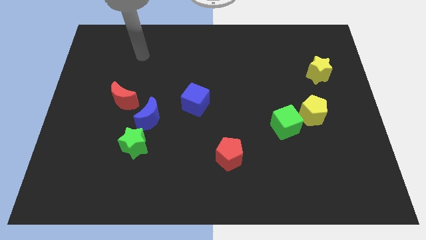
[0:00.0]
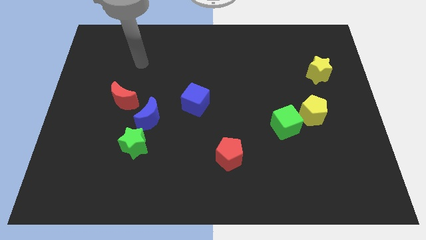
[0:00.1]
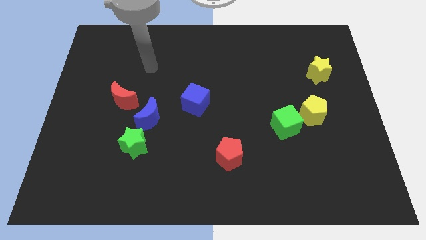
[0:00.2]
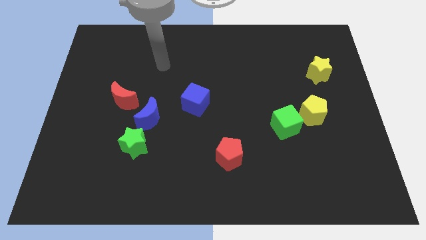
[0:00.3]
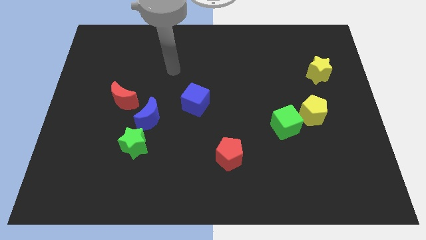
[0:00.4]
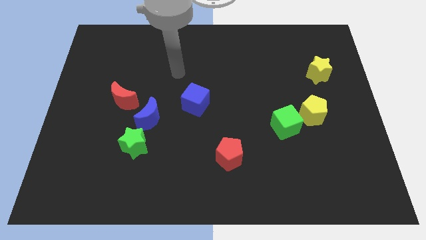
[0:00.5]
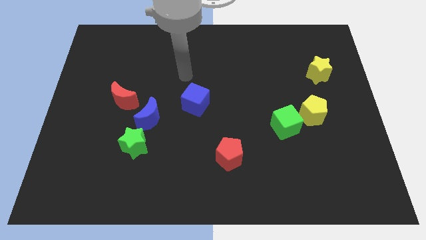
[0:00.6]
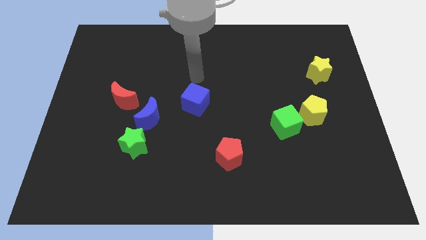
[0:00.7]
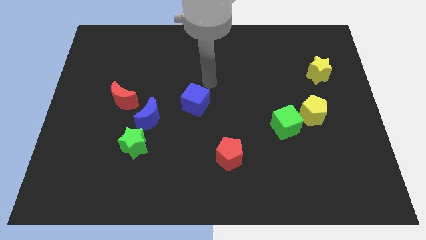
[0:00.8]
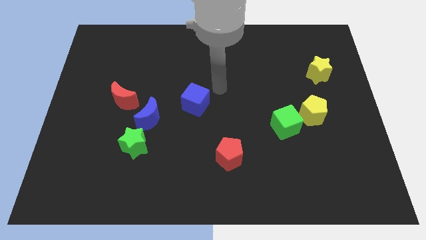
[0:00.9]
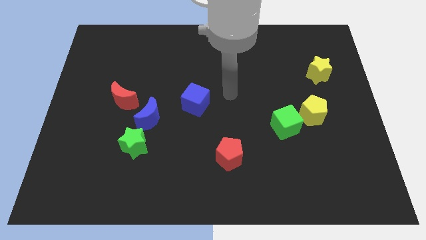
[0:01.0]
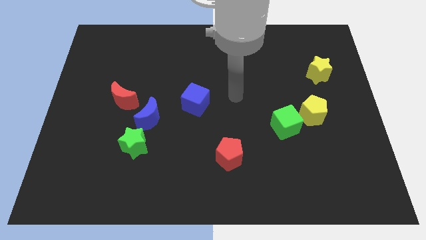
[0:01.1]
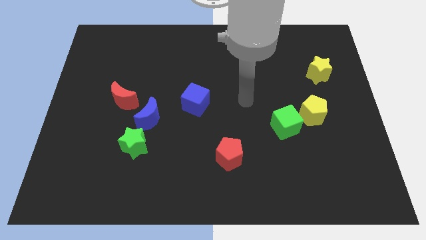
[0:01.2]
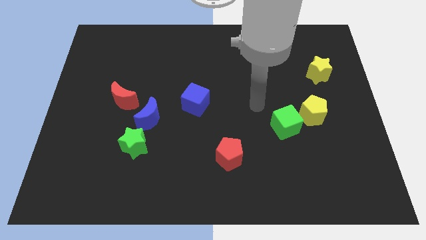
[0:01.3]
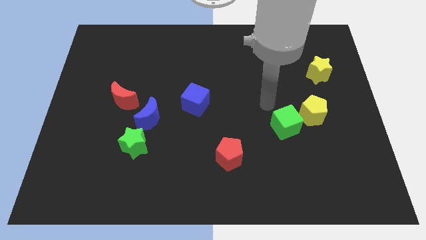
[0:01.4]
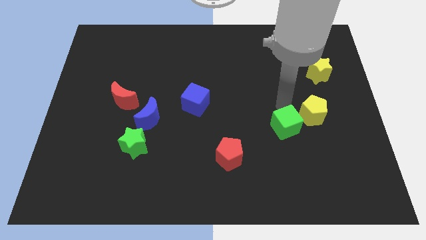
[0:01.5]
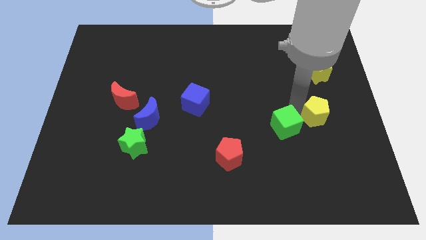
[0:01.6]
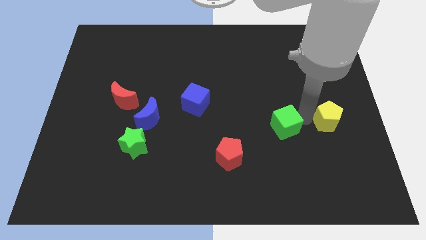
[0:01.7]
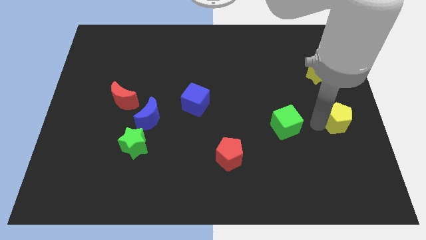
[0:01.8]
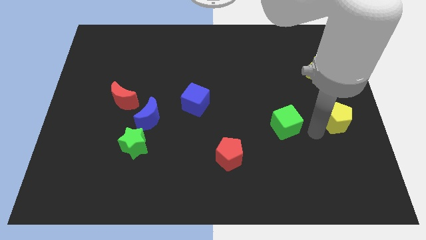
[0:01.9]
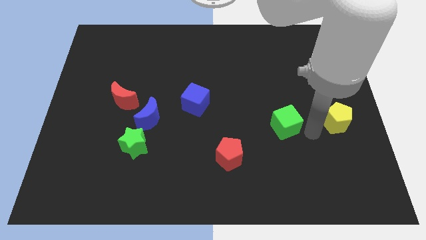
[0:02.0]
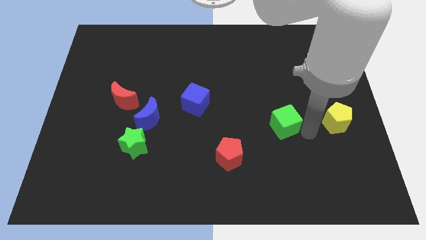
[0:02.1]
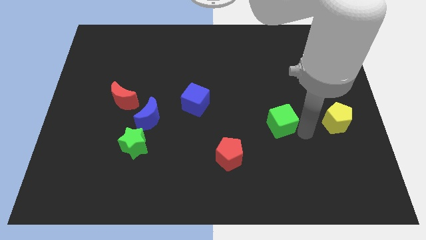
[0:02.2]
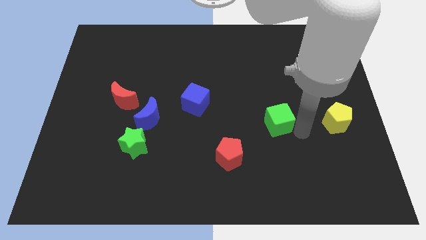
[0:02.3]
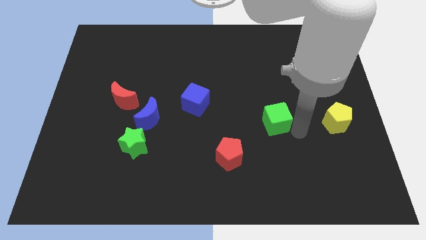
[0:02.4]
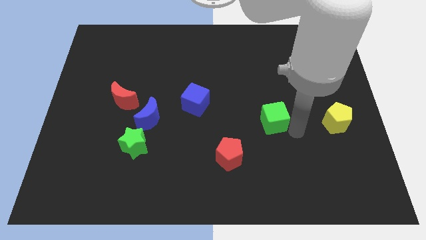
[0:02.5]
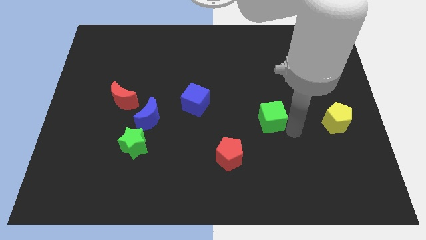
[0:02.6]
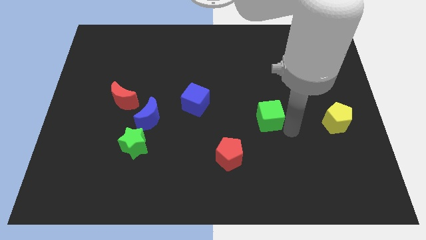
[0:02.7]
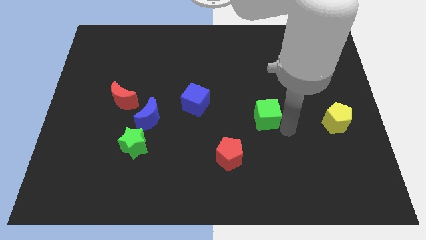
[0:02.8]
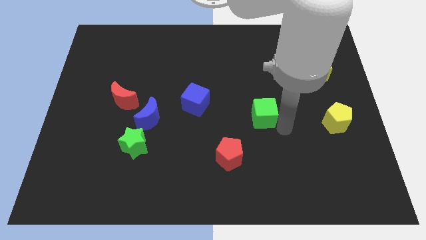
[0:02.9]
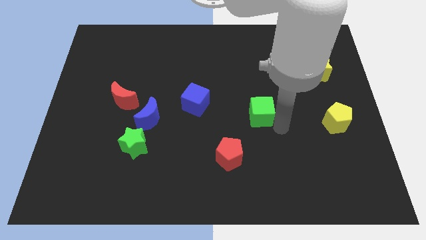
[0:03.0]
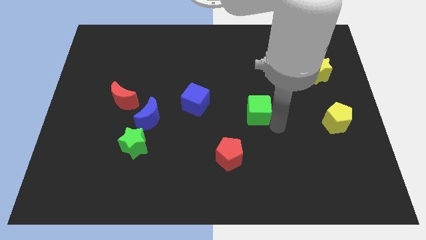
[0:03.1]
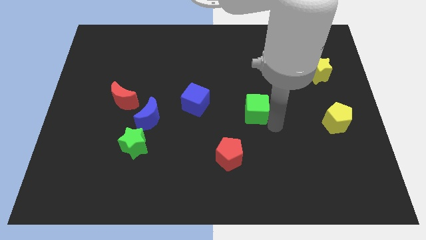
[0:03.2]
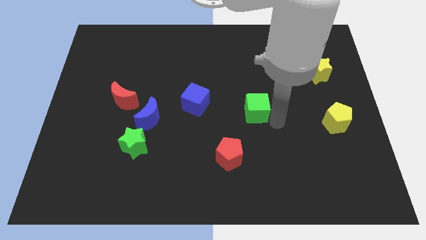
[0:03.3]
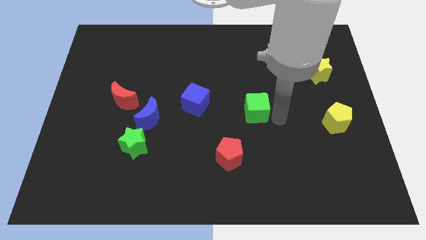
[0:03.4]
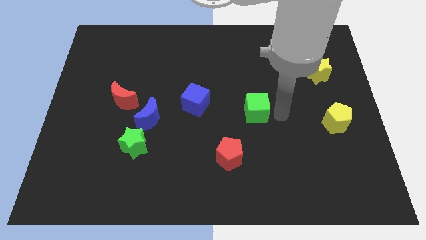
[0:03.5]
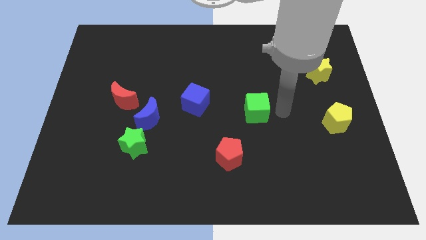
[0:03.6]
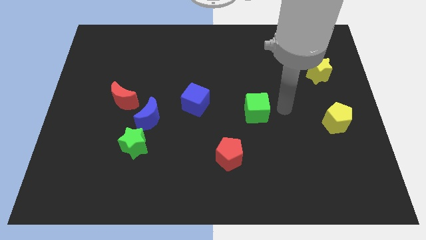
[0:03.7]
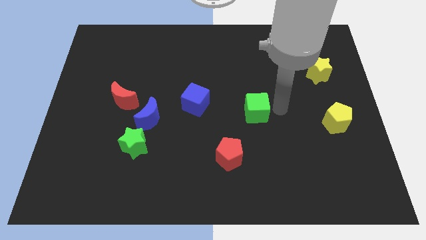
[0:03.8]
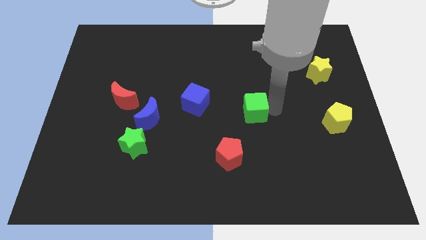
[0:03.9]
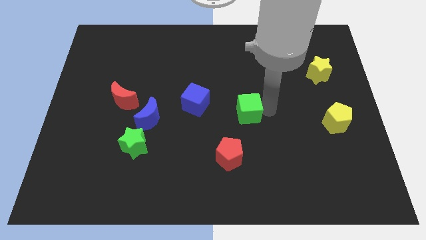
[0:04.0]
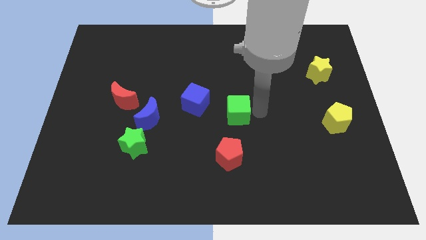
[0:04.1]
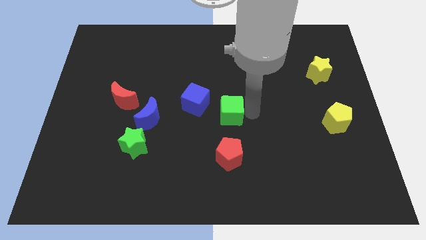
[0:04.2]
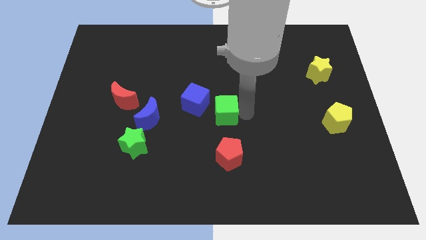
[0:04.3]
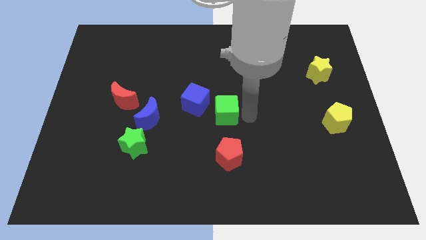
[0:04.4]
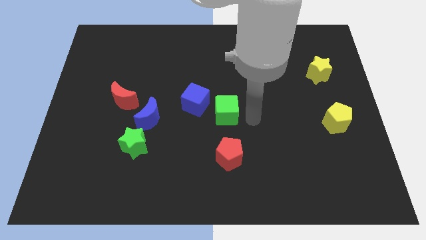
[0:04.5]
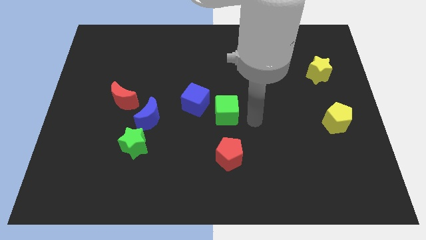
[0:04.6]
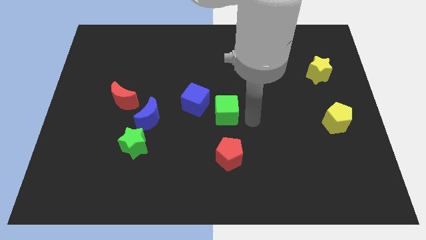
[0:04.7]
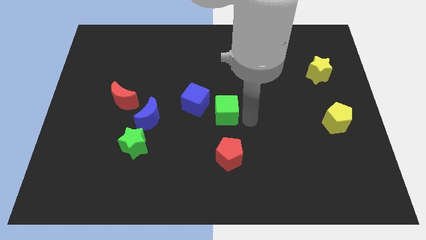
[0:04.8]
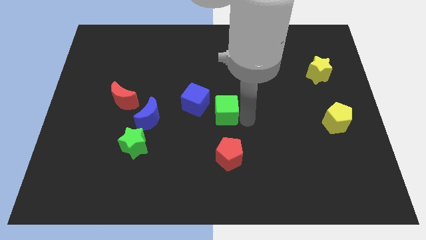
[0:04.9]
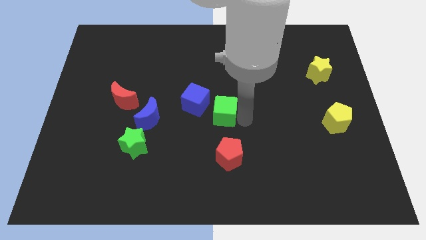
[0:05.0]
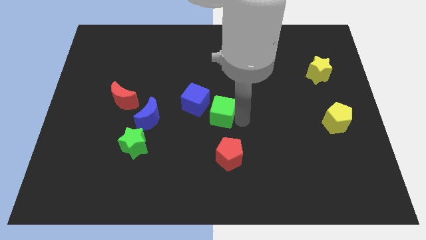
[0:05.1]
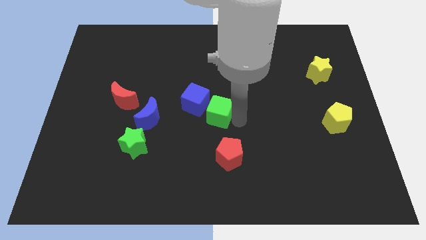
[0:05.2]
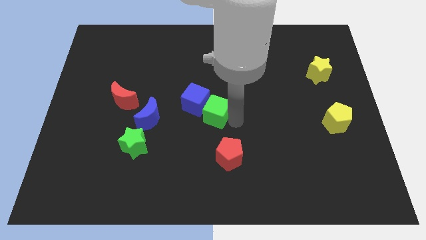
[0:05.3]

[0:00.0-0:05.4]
move the green cube close to the blue cube

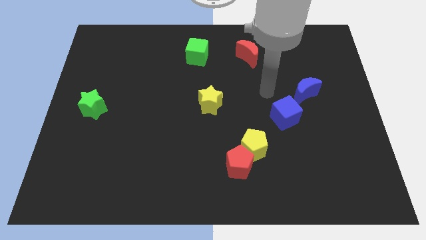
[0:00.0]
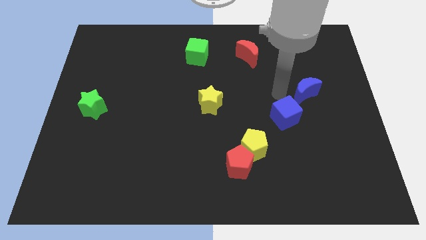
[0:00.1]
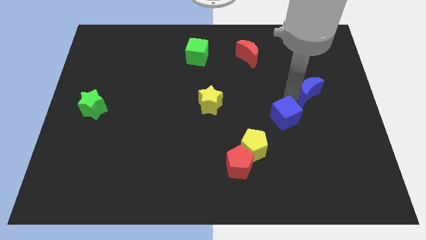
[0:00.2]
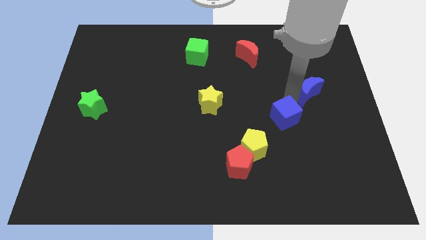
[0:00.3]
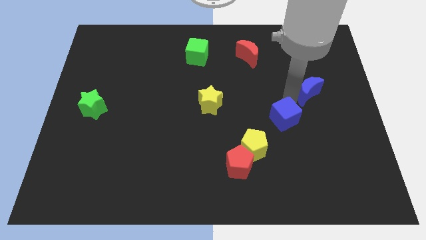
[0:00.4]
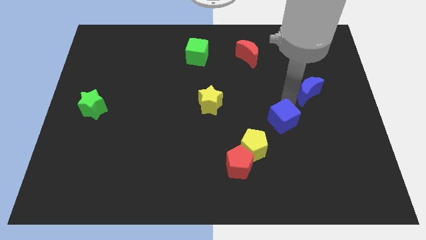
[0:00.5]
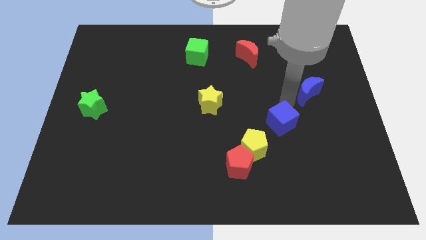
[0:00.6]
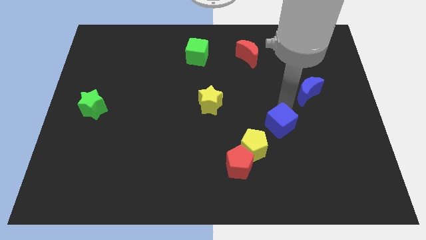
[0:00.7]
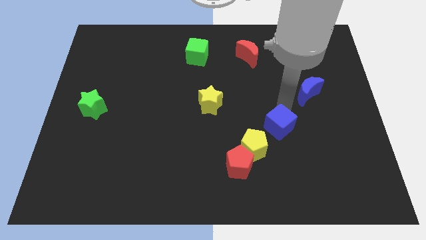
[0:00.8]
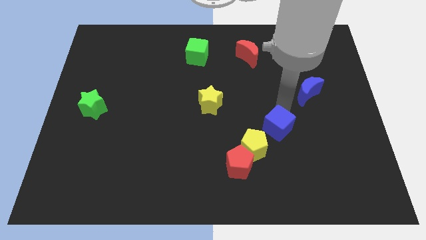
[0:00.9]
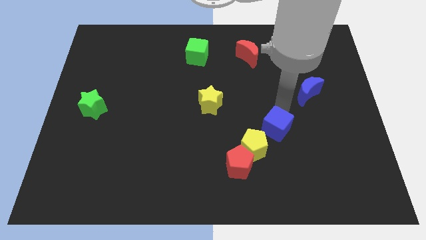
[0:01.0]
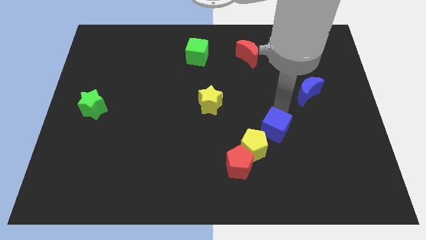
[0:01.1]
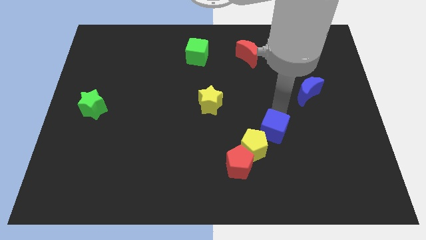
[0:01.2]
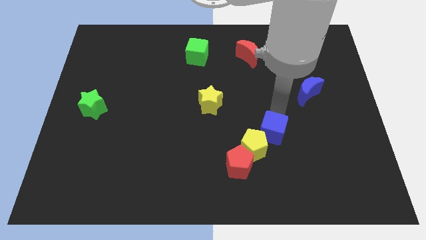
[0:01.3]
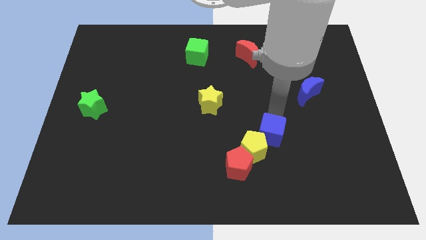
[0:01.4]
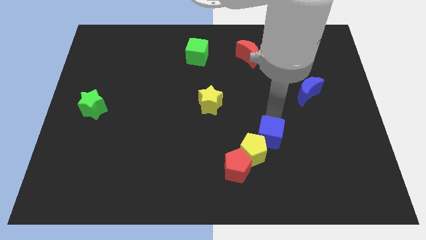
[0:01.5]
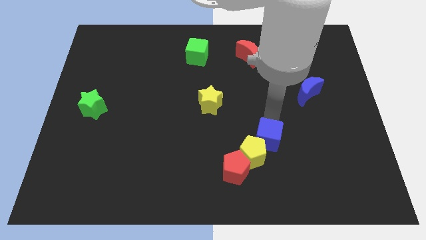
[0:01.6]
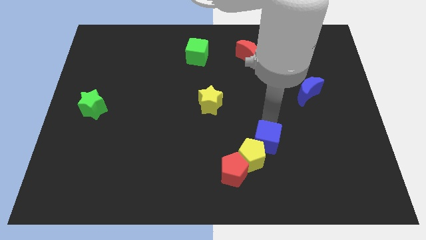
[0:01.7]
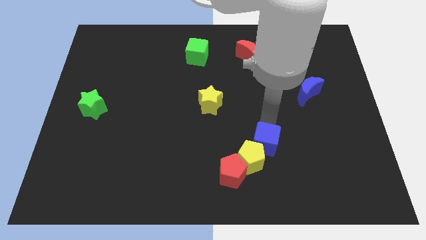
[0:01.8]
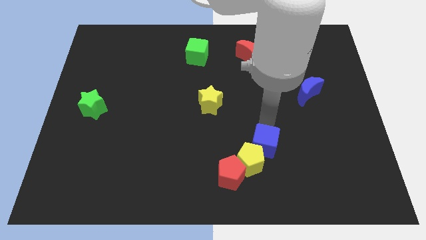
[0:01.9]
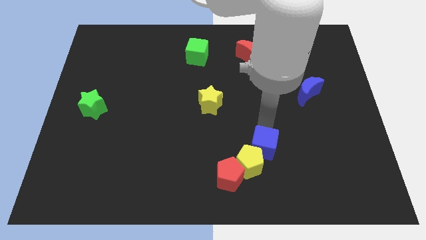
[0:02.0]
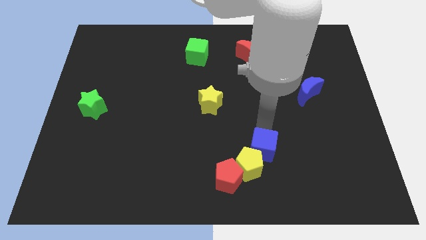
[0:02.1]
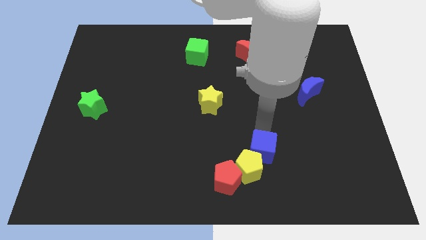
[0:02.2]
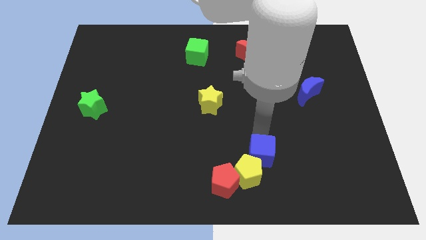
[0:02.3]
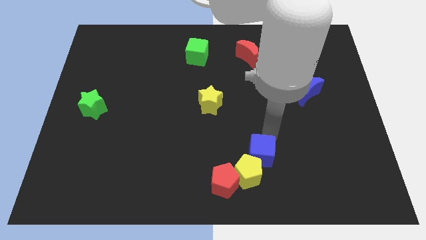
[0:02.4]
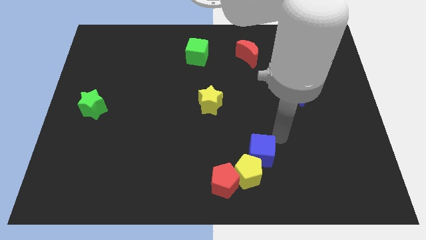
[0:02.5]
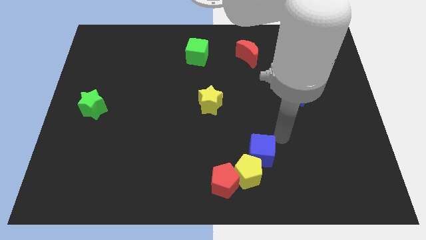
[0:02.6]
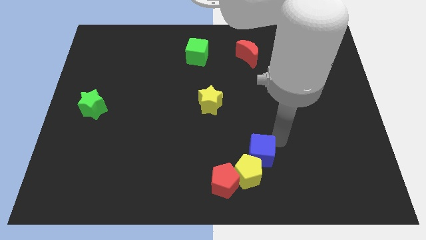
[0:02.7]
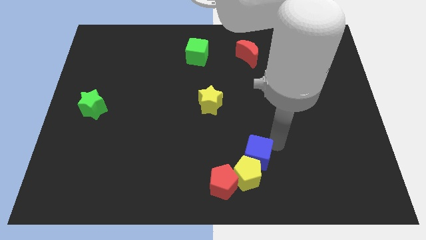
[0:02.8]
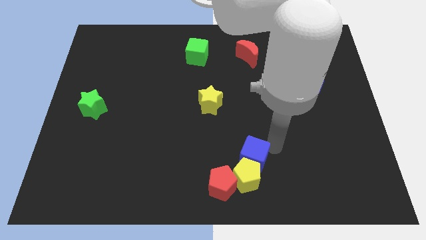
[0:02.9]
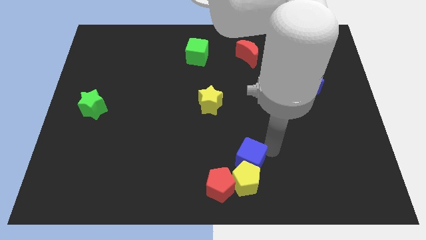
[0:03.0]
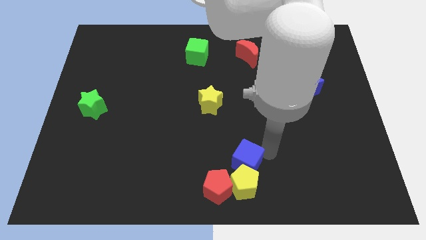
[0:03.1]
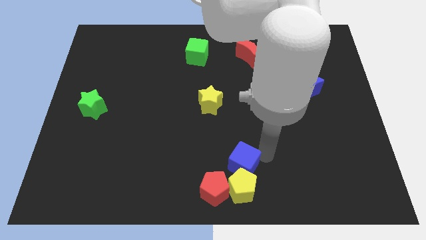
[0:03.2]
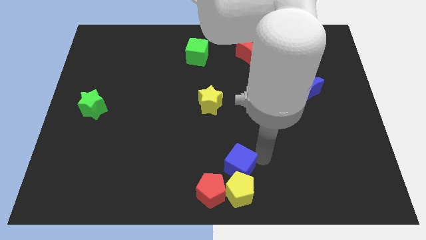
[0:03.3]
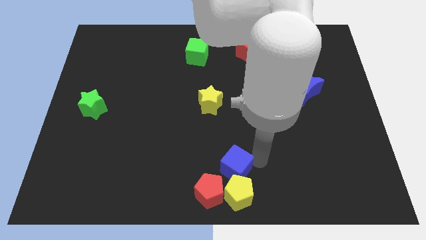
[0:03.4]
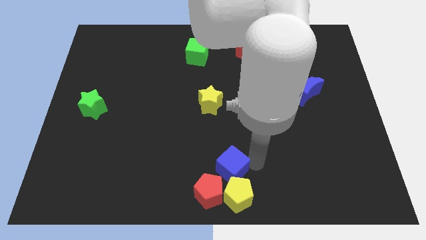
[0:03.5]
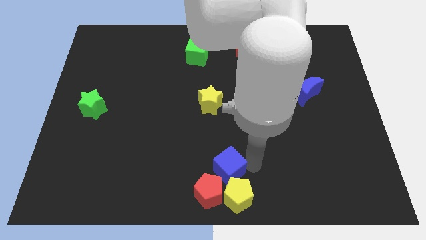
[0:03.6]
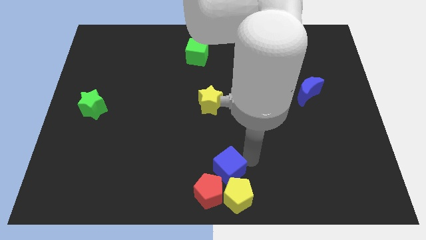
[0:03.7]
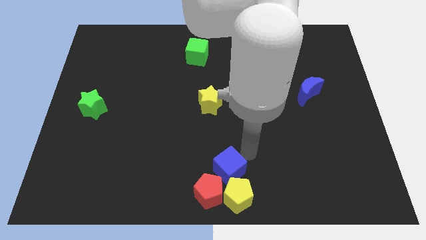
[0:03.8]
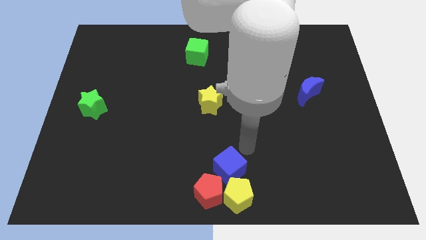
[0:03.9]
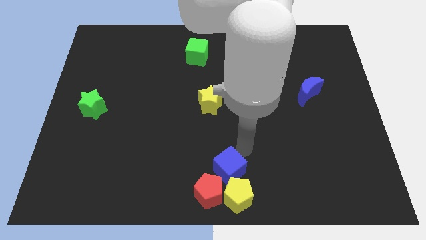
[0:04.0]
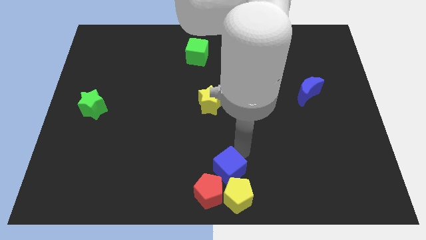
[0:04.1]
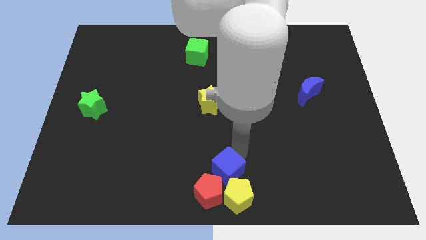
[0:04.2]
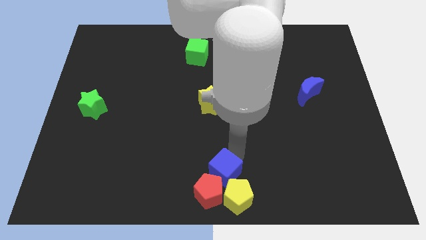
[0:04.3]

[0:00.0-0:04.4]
push the blue cube to the red pentagon
